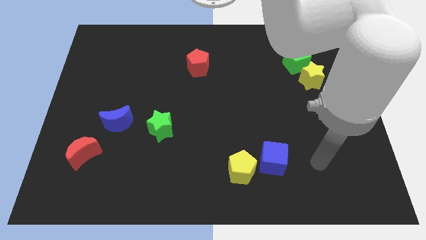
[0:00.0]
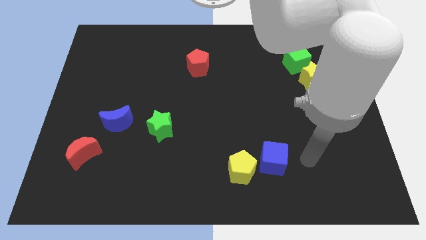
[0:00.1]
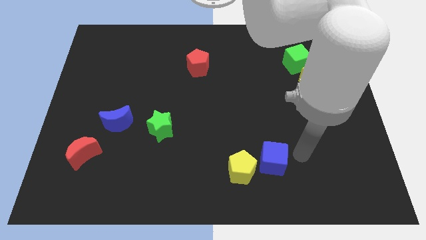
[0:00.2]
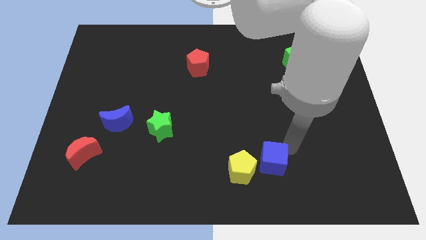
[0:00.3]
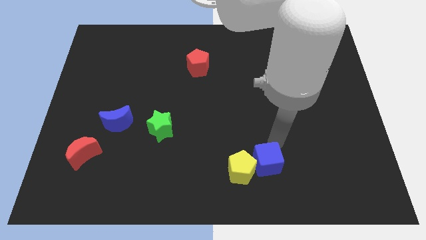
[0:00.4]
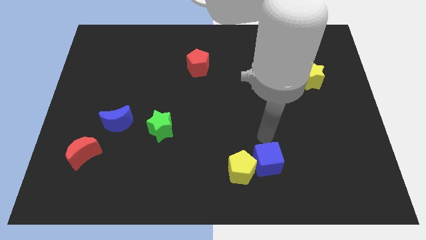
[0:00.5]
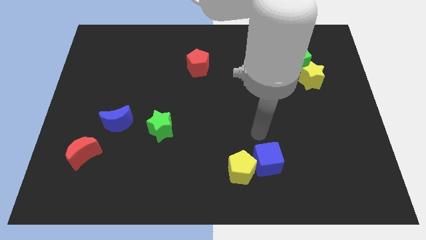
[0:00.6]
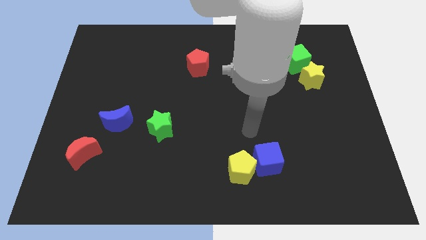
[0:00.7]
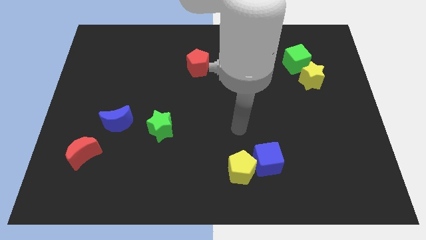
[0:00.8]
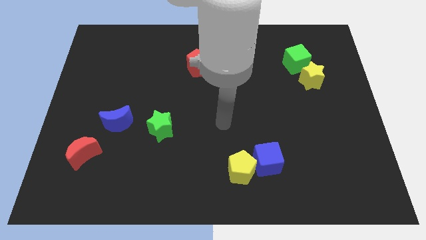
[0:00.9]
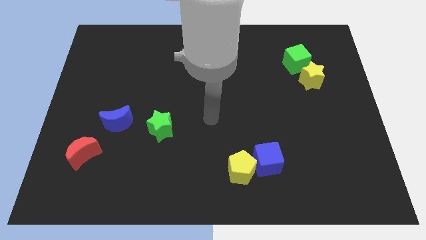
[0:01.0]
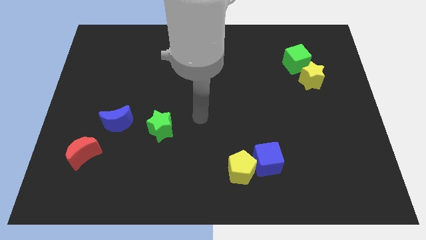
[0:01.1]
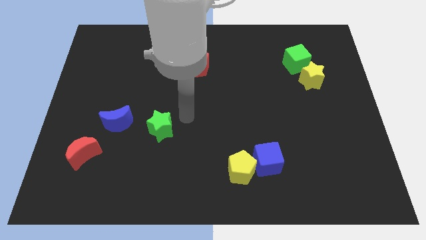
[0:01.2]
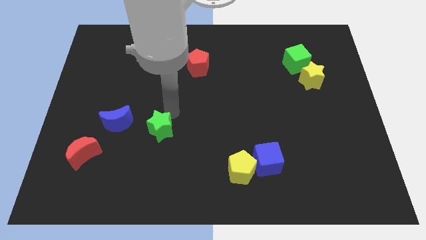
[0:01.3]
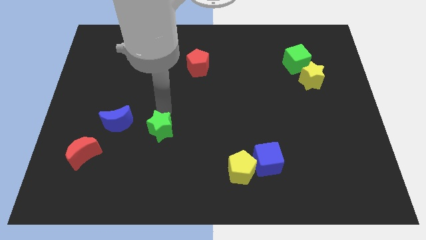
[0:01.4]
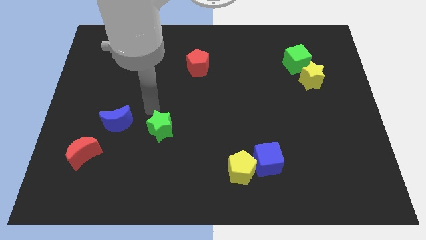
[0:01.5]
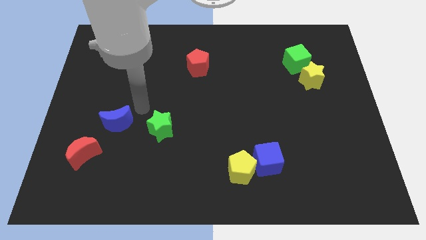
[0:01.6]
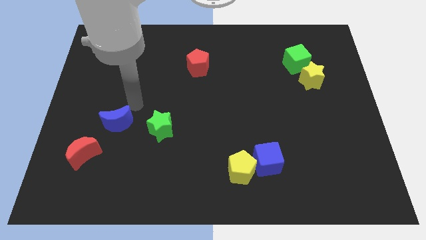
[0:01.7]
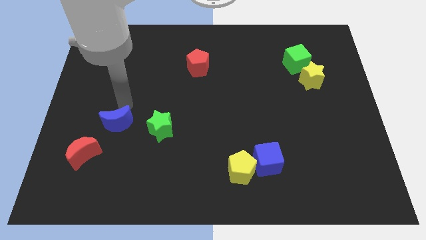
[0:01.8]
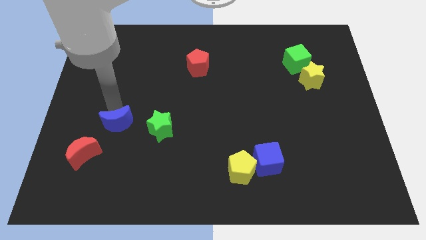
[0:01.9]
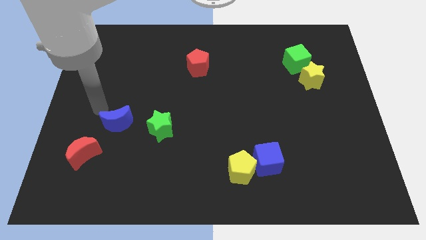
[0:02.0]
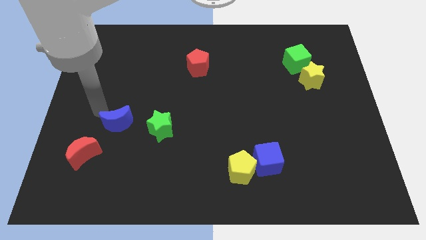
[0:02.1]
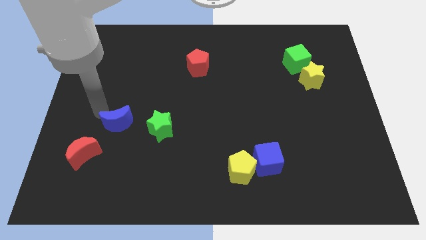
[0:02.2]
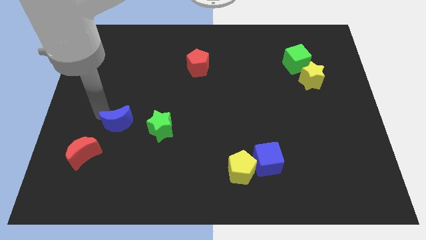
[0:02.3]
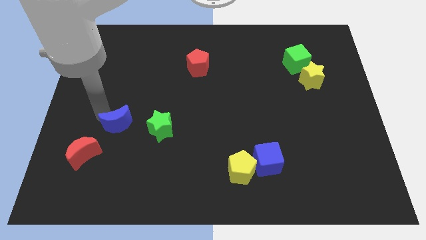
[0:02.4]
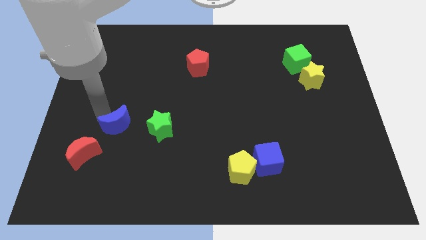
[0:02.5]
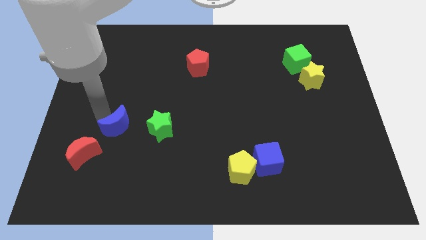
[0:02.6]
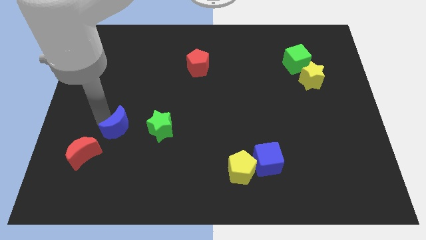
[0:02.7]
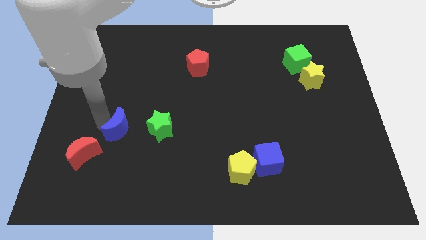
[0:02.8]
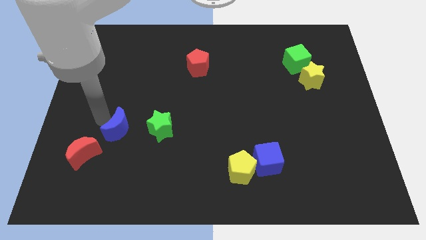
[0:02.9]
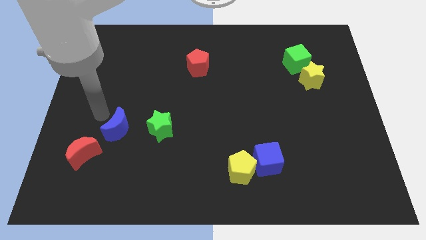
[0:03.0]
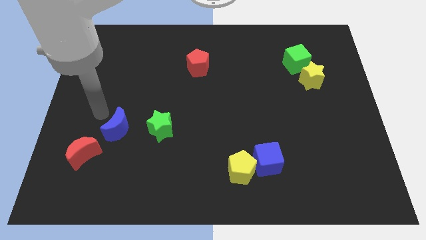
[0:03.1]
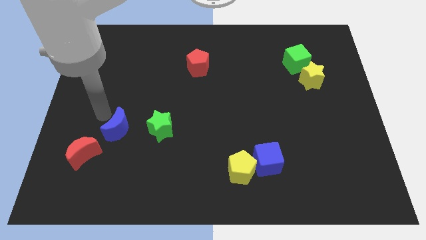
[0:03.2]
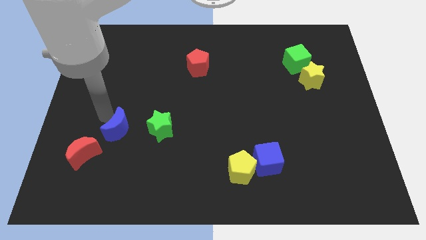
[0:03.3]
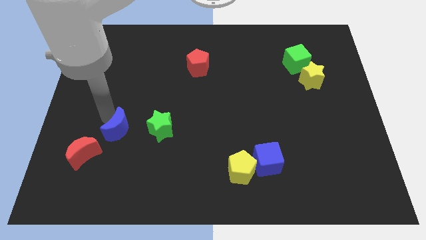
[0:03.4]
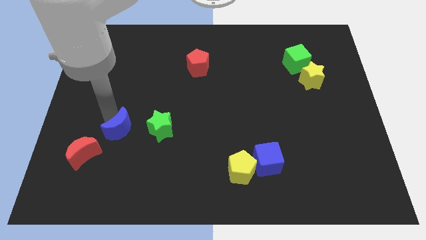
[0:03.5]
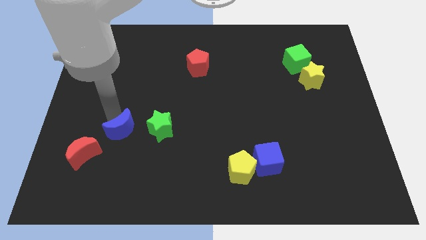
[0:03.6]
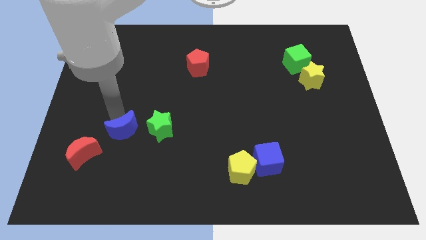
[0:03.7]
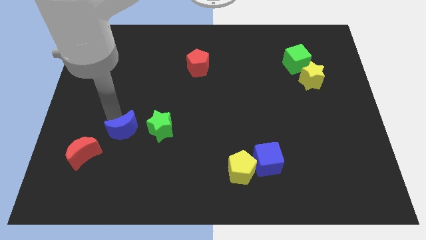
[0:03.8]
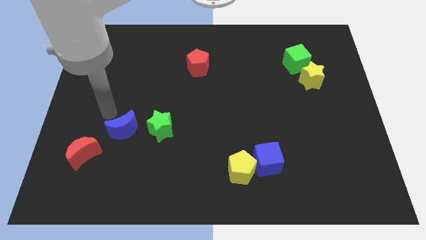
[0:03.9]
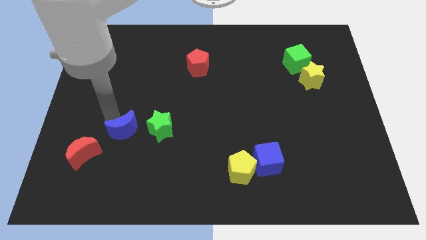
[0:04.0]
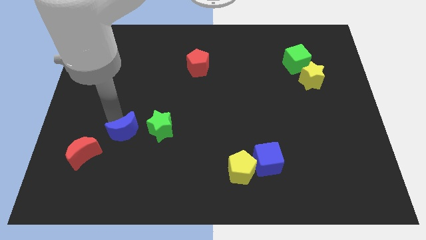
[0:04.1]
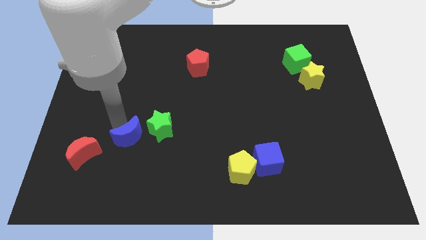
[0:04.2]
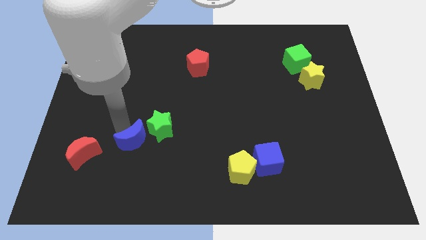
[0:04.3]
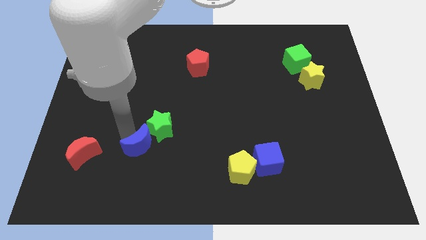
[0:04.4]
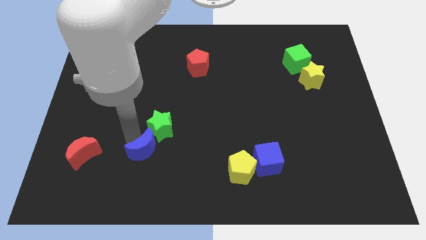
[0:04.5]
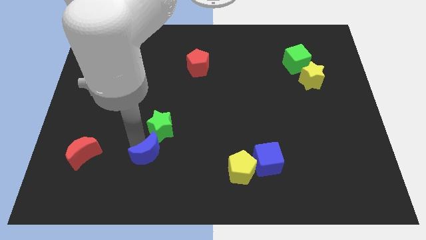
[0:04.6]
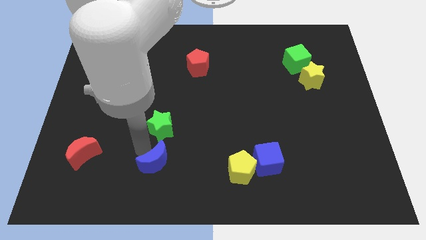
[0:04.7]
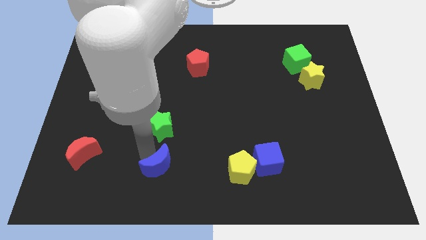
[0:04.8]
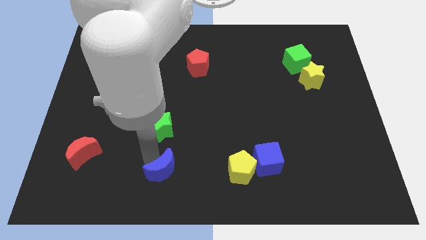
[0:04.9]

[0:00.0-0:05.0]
push the blue moon to the bottom

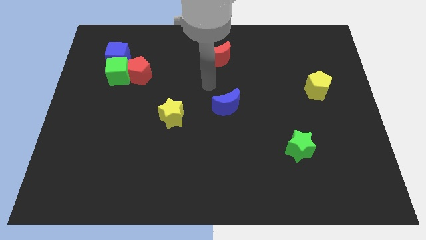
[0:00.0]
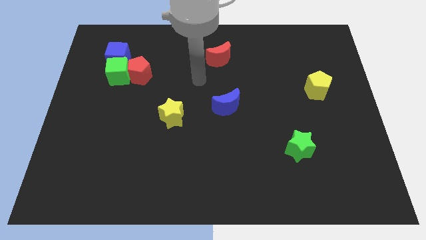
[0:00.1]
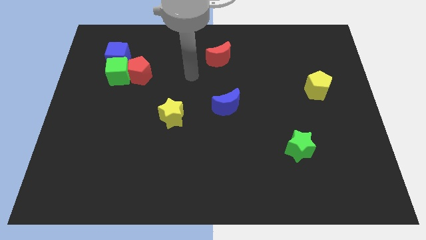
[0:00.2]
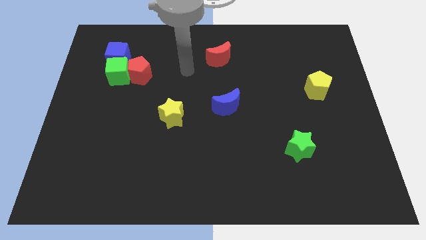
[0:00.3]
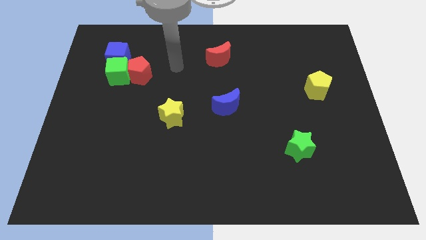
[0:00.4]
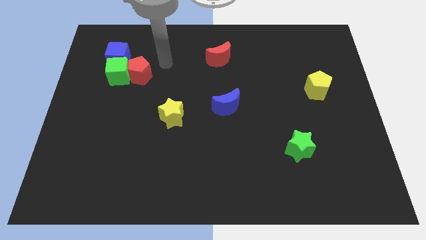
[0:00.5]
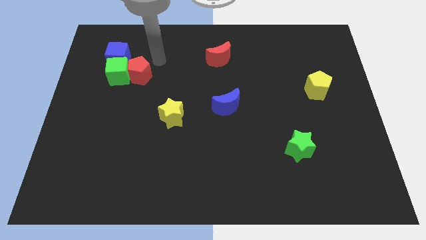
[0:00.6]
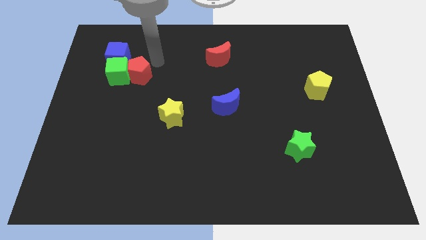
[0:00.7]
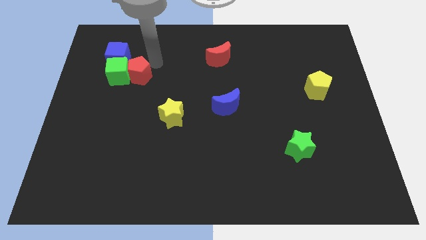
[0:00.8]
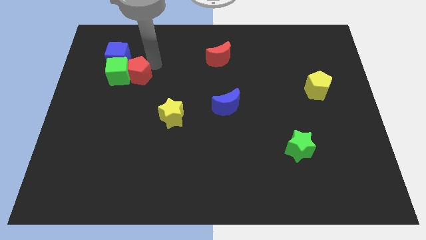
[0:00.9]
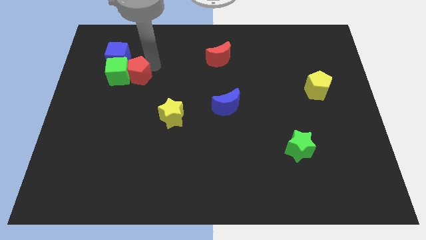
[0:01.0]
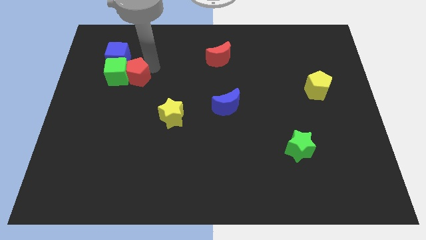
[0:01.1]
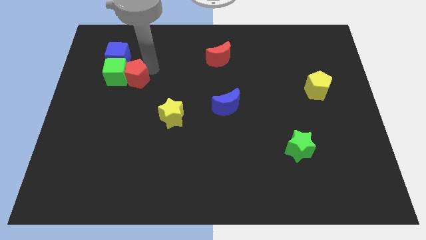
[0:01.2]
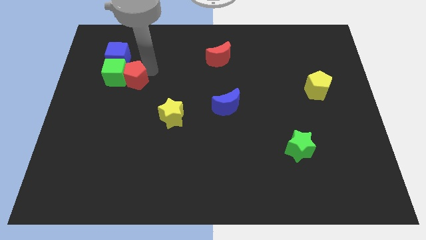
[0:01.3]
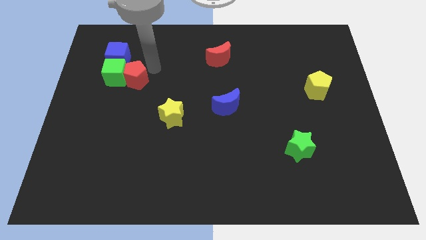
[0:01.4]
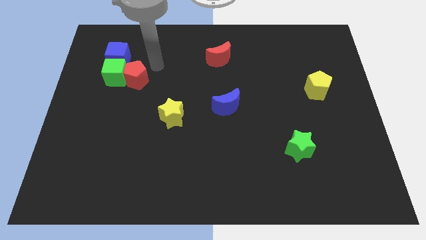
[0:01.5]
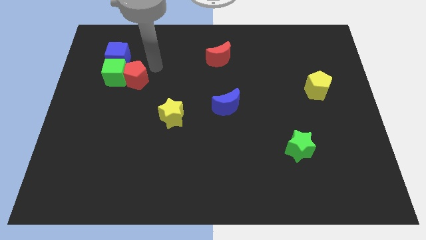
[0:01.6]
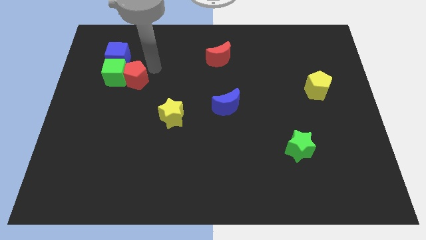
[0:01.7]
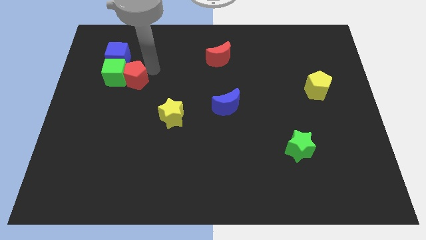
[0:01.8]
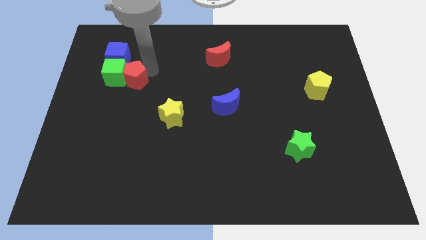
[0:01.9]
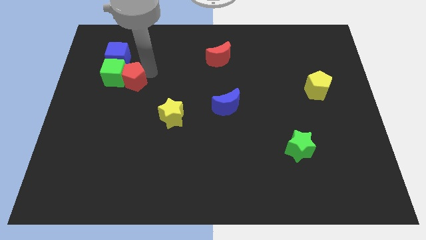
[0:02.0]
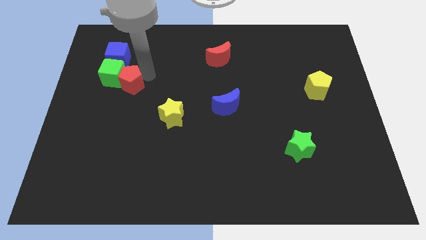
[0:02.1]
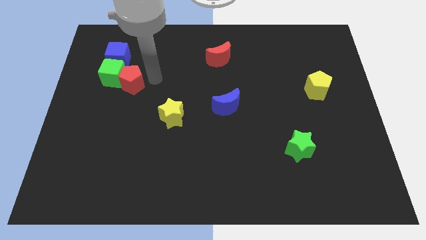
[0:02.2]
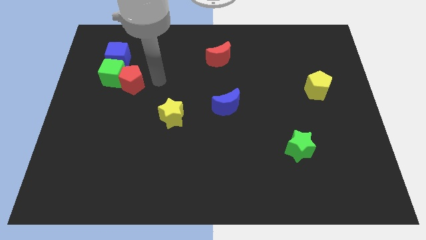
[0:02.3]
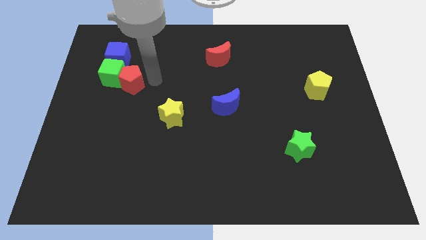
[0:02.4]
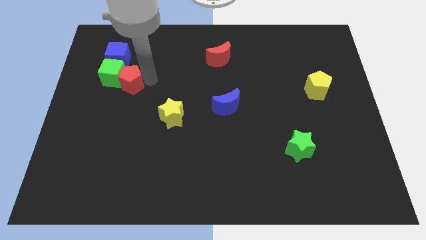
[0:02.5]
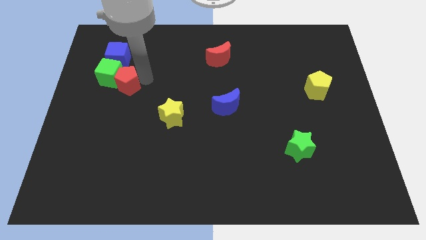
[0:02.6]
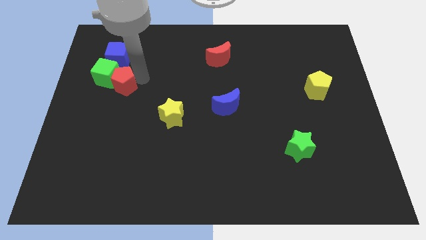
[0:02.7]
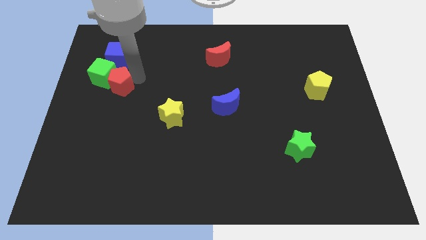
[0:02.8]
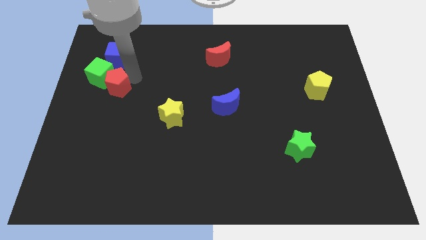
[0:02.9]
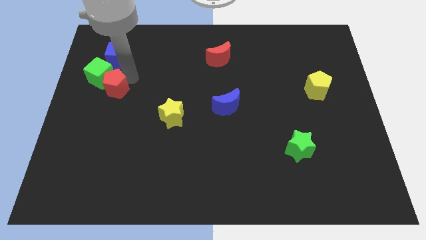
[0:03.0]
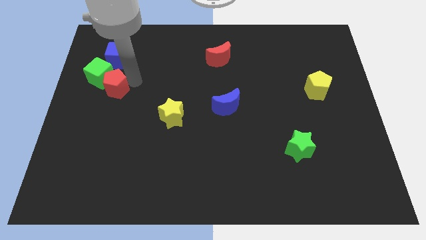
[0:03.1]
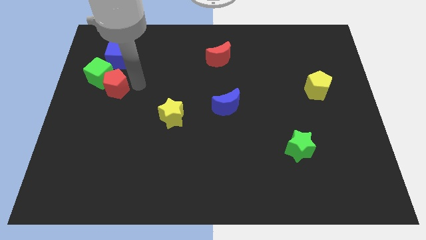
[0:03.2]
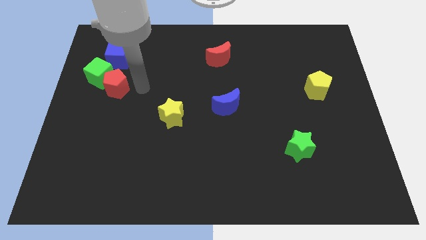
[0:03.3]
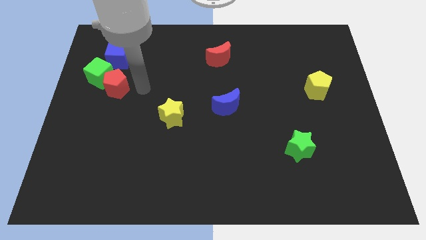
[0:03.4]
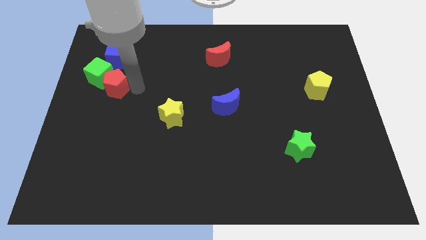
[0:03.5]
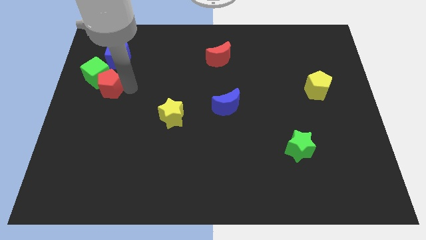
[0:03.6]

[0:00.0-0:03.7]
put the red pentagon to the left side
